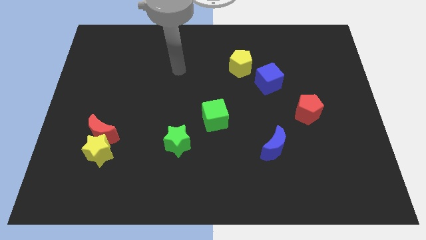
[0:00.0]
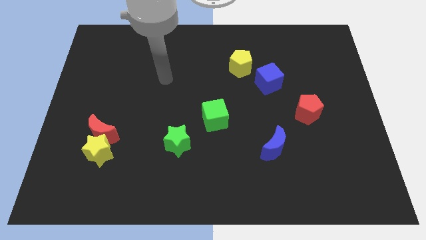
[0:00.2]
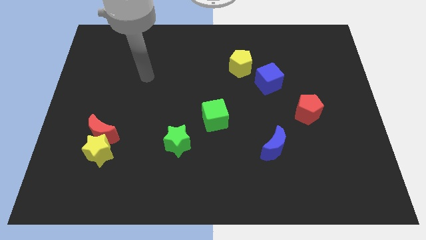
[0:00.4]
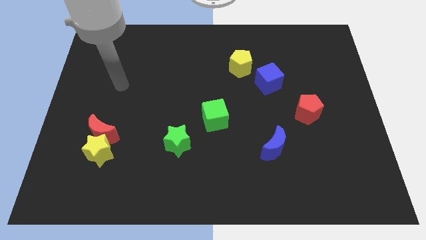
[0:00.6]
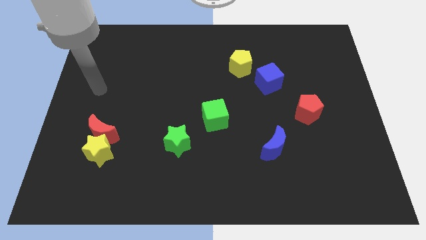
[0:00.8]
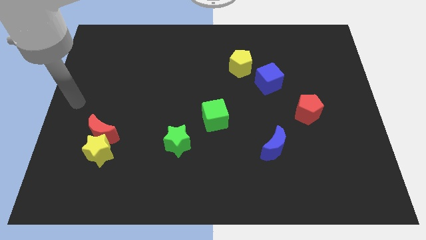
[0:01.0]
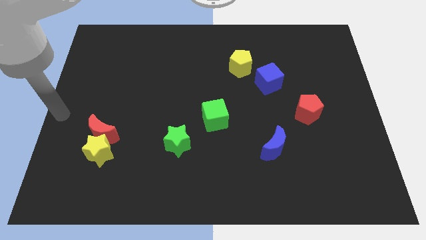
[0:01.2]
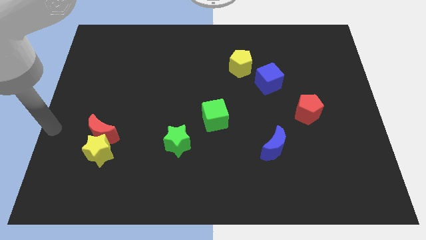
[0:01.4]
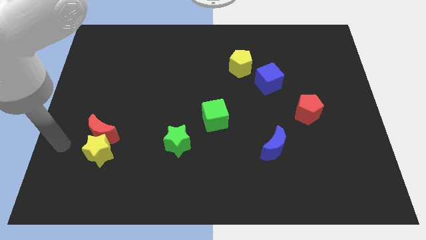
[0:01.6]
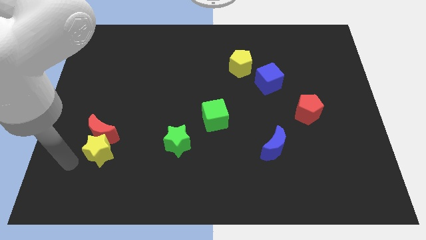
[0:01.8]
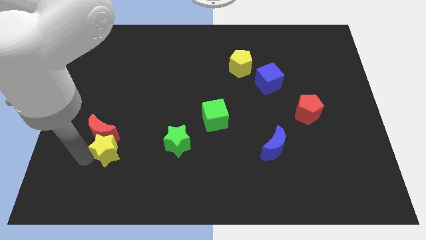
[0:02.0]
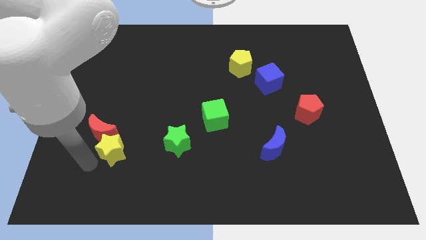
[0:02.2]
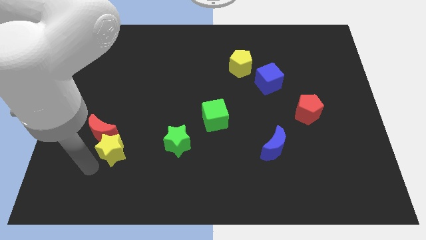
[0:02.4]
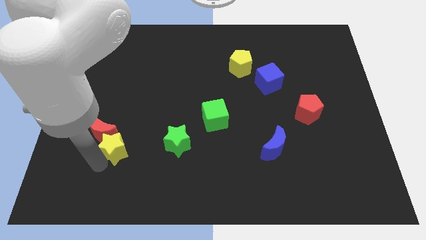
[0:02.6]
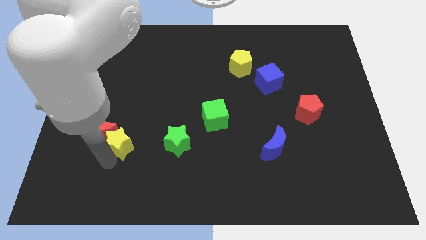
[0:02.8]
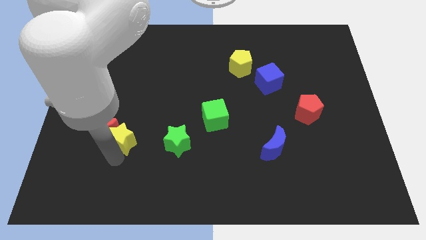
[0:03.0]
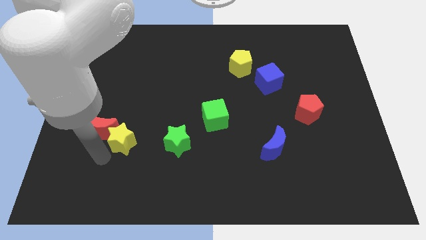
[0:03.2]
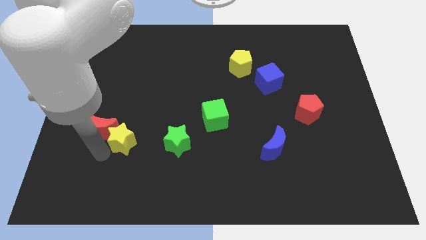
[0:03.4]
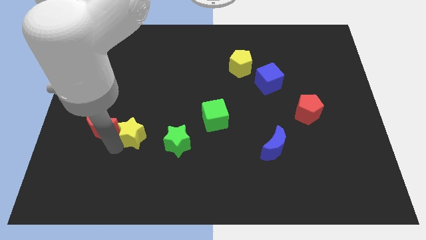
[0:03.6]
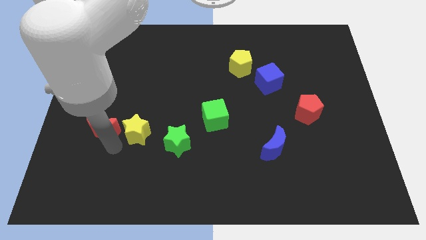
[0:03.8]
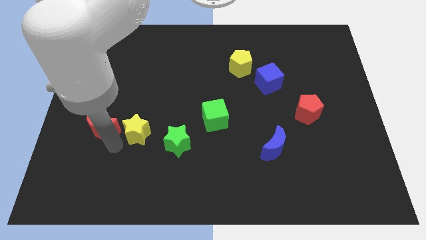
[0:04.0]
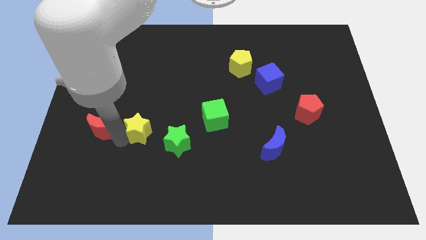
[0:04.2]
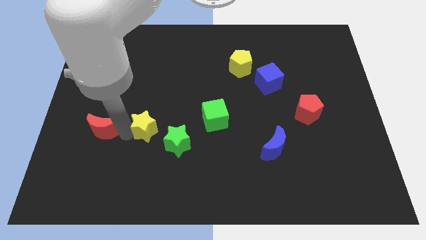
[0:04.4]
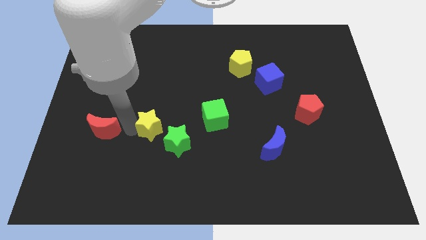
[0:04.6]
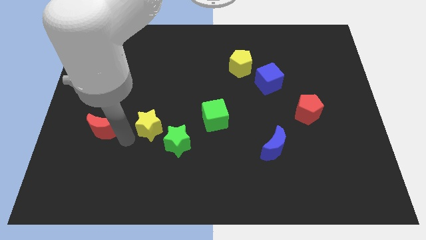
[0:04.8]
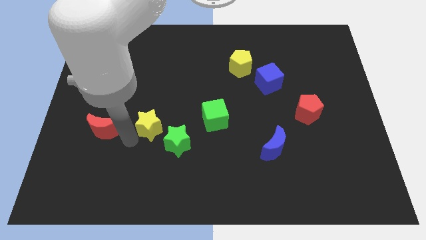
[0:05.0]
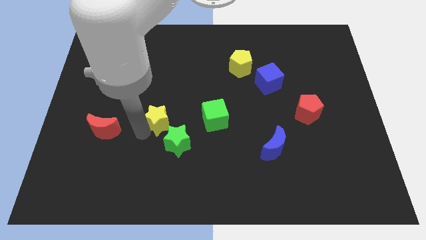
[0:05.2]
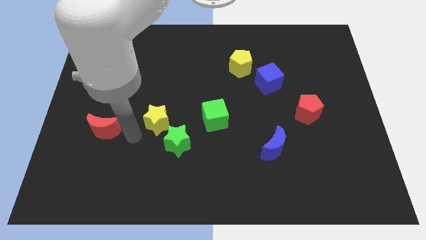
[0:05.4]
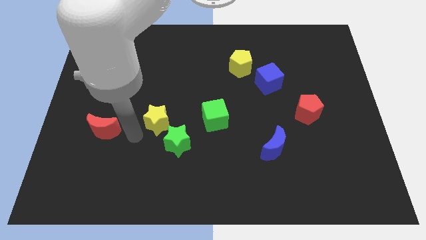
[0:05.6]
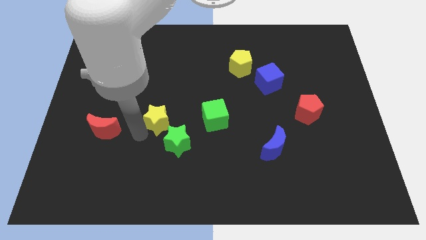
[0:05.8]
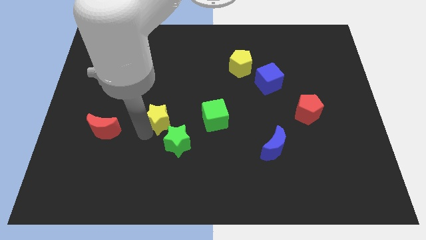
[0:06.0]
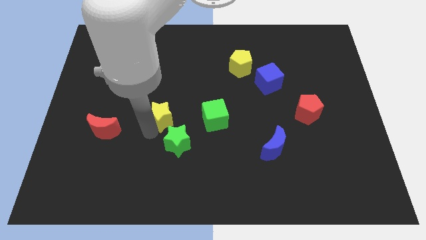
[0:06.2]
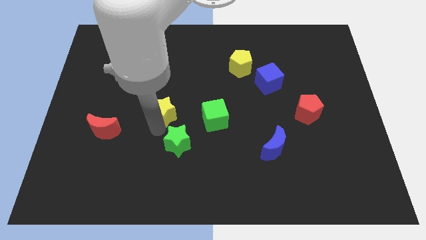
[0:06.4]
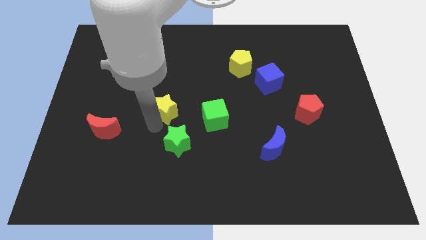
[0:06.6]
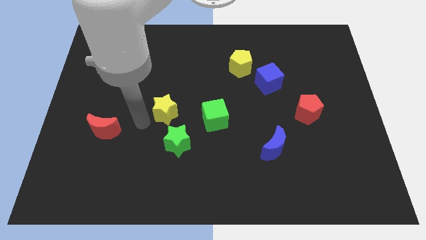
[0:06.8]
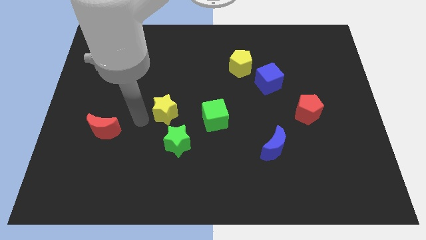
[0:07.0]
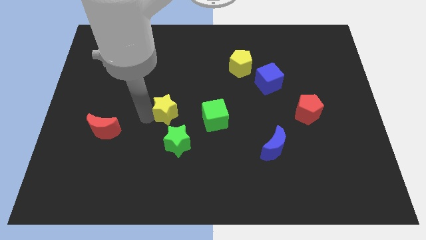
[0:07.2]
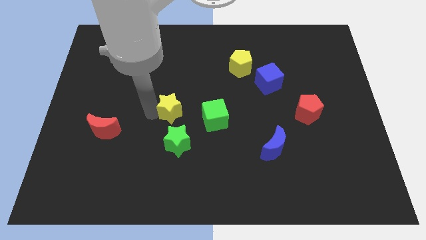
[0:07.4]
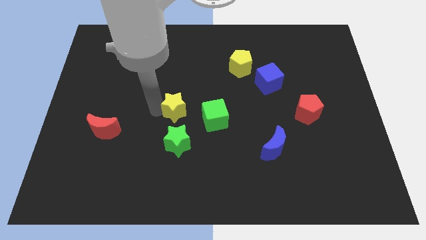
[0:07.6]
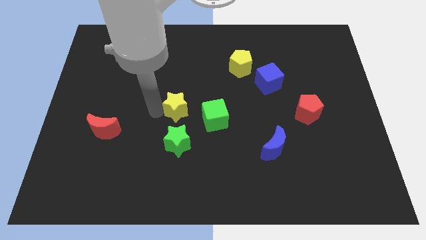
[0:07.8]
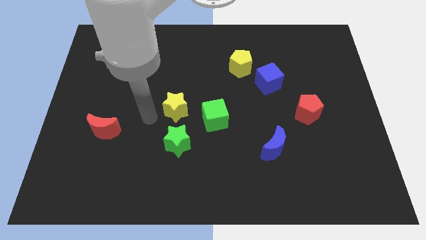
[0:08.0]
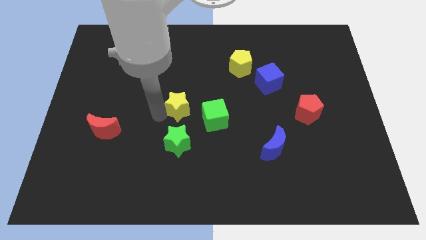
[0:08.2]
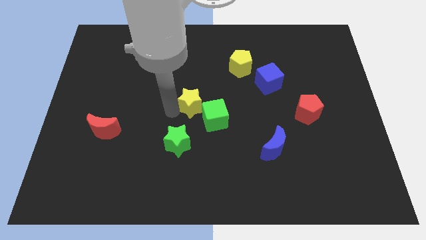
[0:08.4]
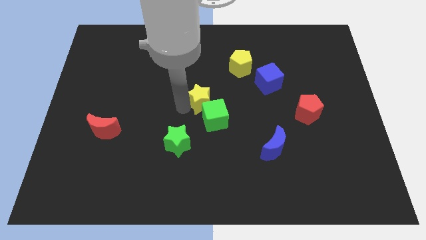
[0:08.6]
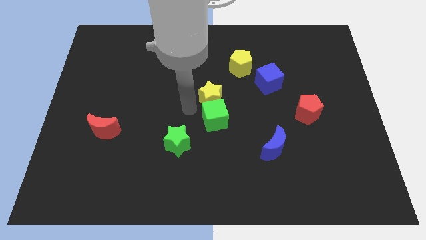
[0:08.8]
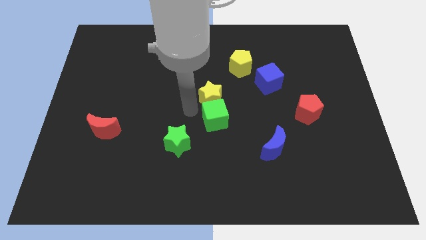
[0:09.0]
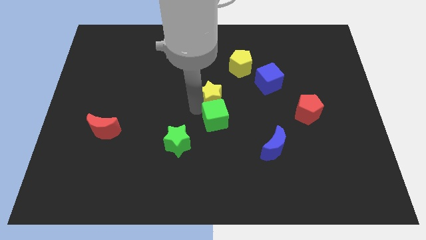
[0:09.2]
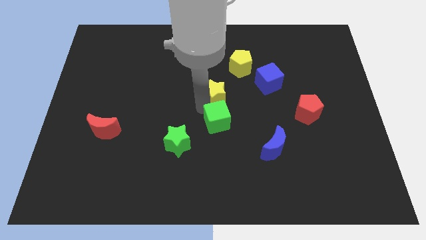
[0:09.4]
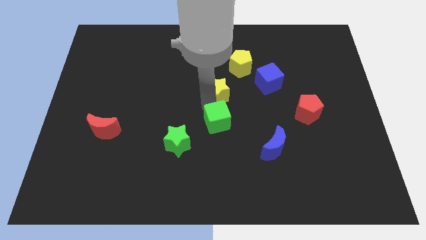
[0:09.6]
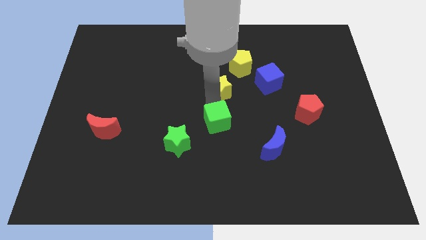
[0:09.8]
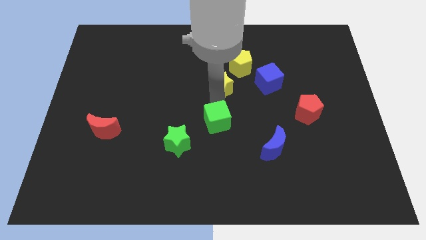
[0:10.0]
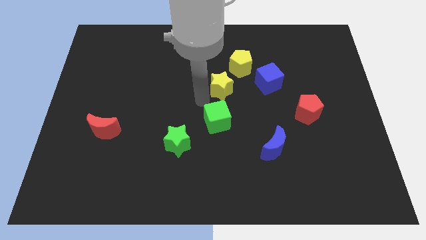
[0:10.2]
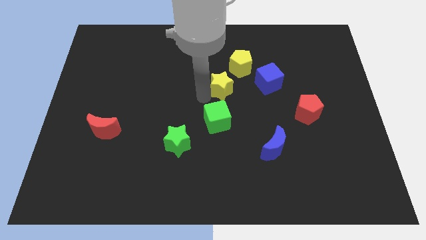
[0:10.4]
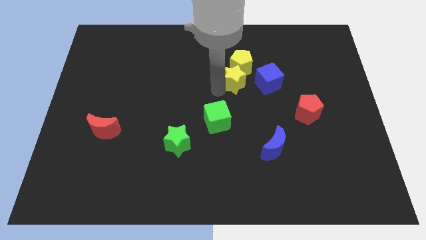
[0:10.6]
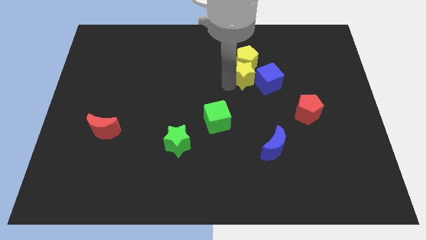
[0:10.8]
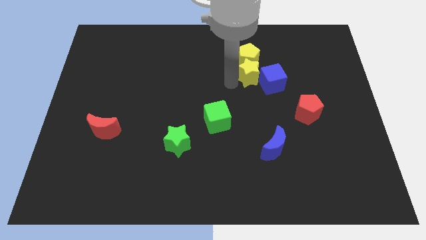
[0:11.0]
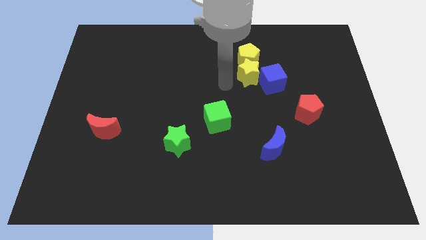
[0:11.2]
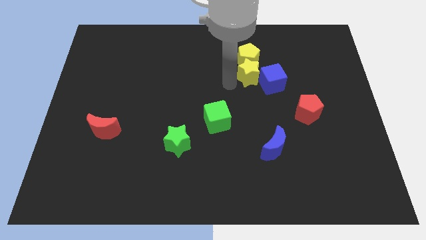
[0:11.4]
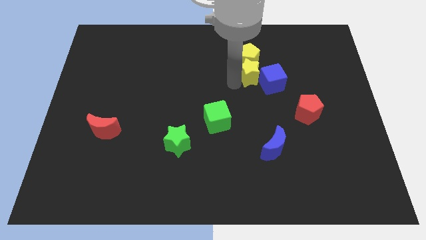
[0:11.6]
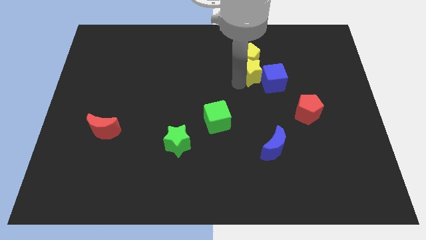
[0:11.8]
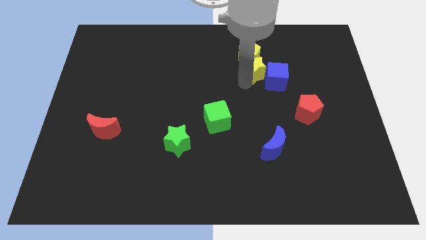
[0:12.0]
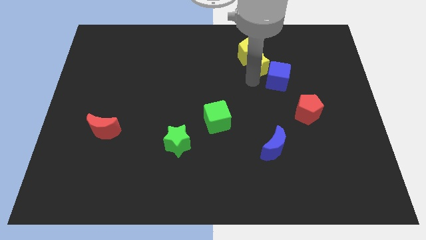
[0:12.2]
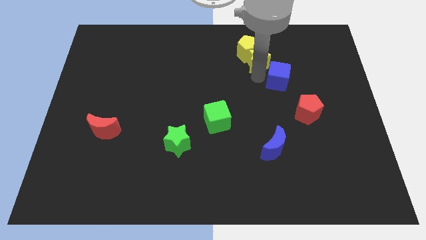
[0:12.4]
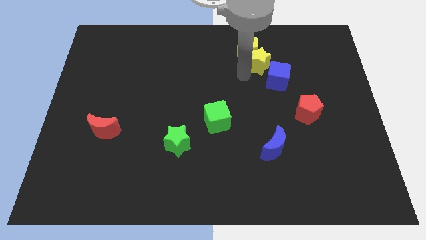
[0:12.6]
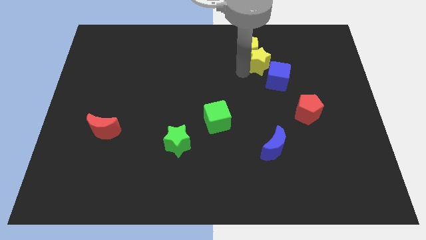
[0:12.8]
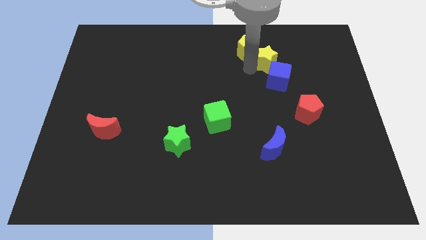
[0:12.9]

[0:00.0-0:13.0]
move the yellow star to the right side of the yellow pentagon

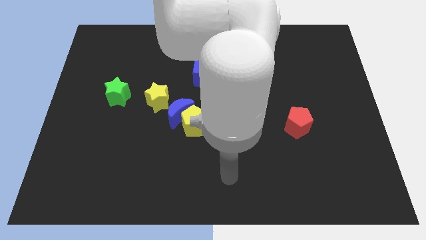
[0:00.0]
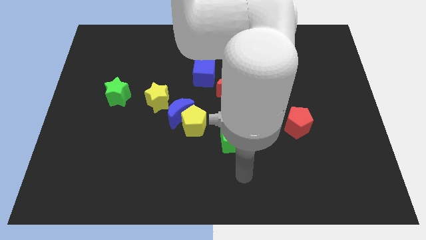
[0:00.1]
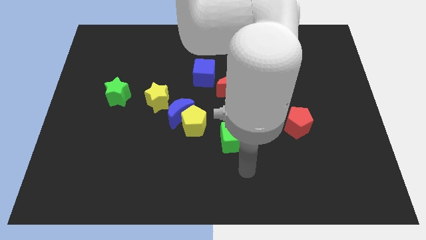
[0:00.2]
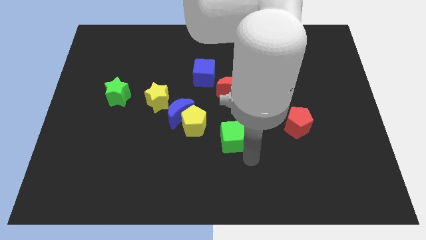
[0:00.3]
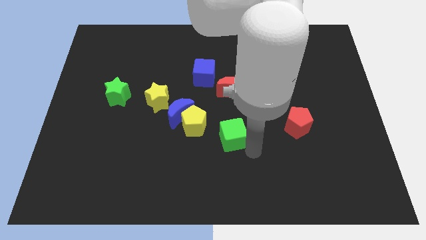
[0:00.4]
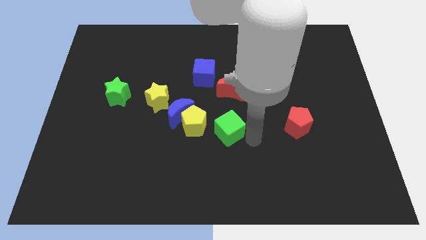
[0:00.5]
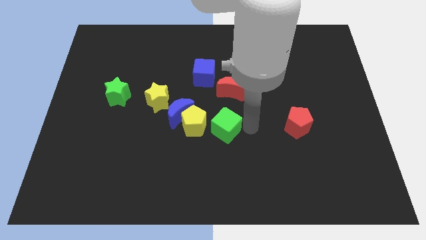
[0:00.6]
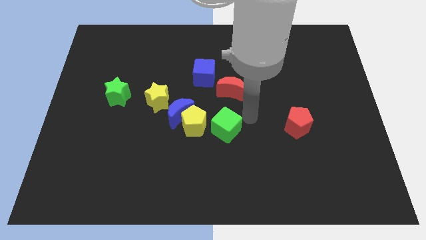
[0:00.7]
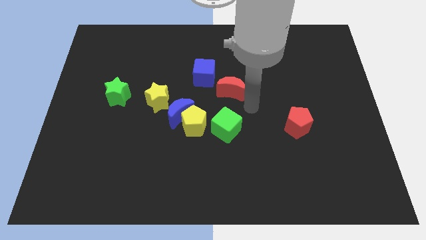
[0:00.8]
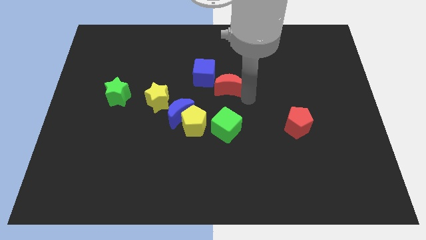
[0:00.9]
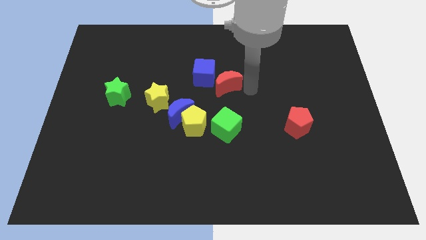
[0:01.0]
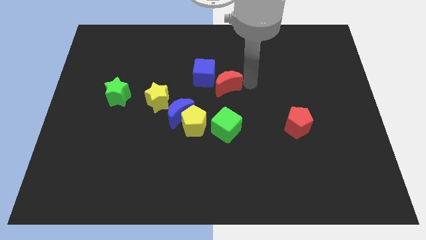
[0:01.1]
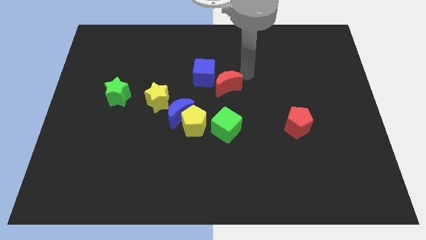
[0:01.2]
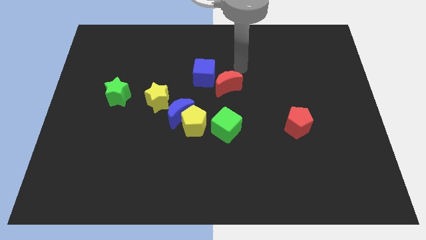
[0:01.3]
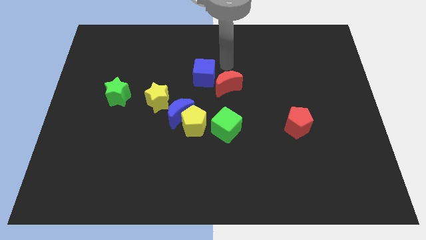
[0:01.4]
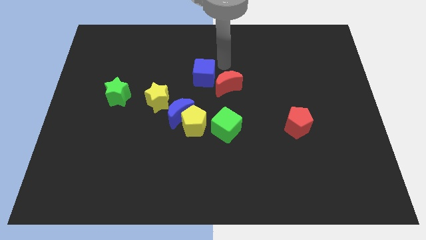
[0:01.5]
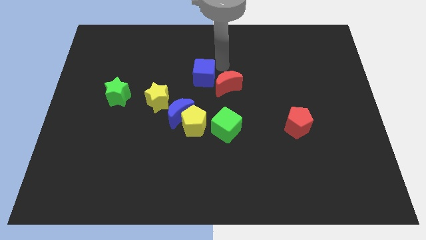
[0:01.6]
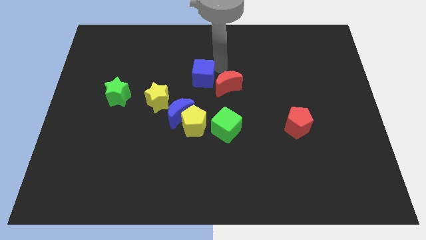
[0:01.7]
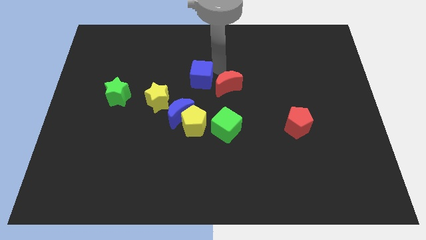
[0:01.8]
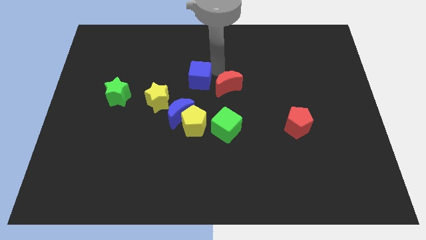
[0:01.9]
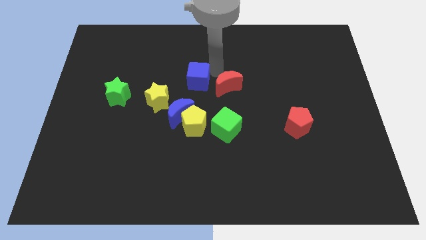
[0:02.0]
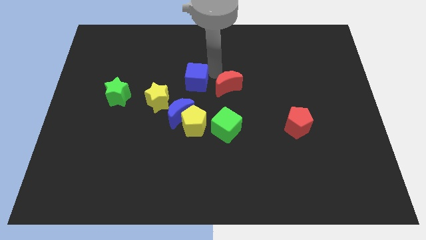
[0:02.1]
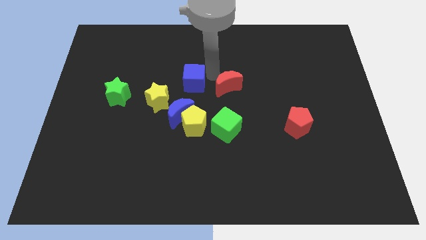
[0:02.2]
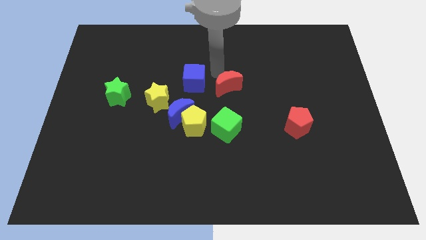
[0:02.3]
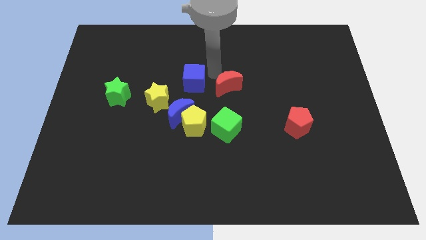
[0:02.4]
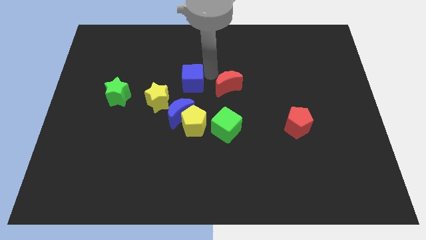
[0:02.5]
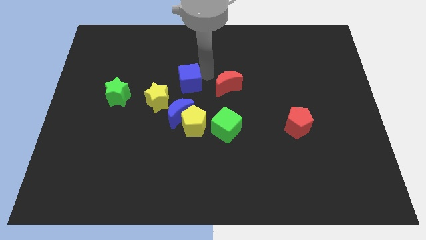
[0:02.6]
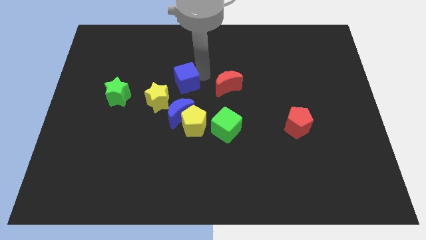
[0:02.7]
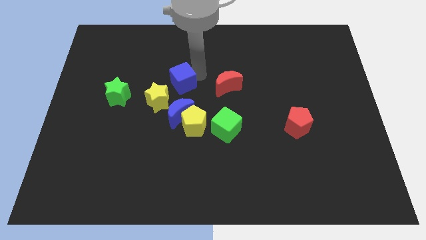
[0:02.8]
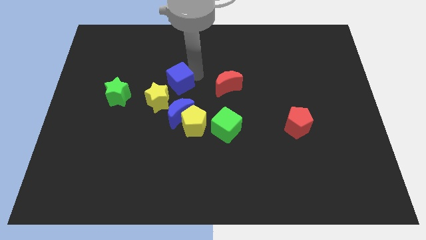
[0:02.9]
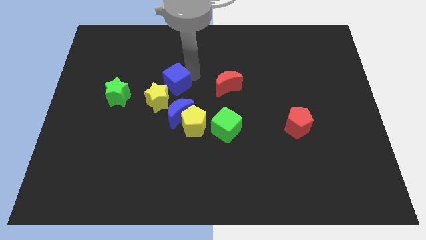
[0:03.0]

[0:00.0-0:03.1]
slide the blue cube right of the green star
